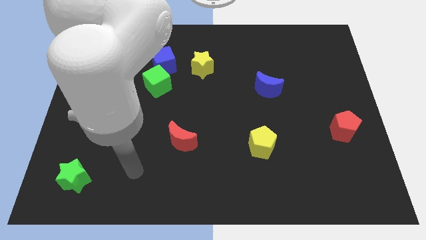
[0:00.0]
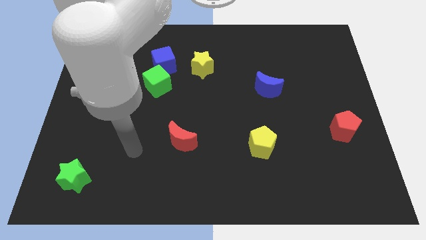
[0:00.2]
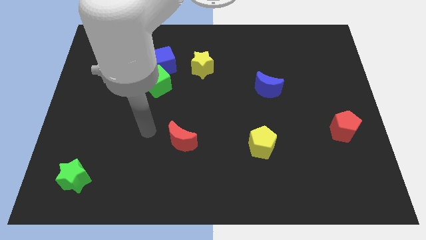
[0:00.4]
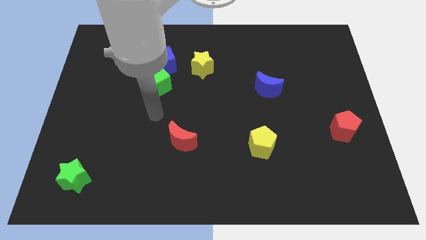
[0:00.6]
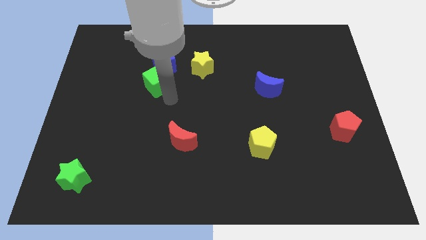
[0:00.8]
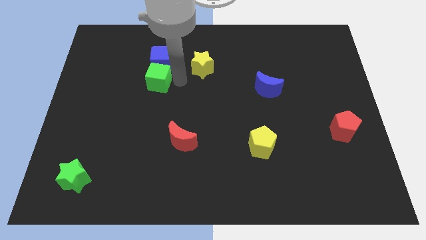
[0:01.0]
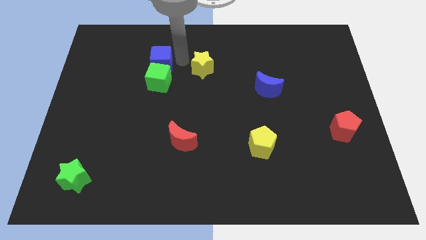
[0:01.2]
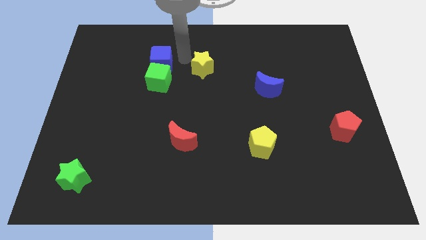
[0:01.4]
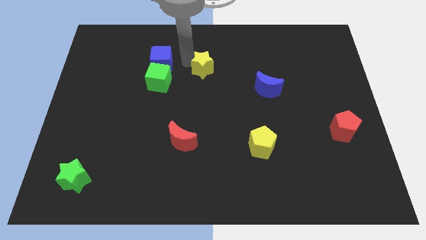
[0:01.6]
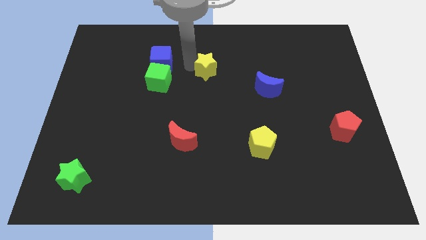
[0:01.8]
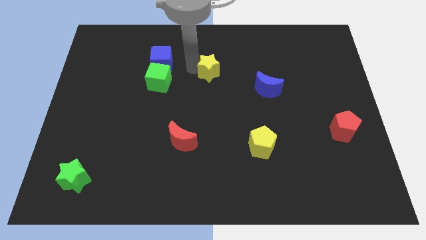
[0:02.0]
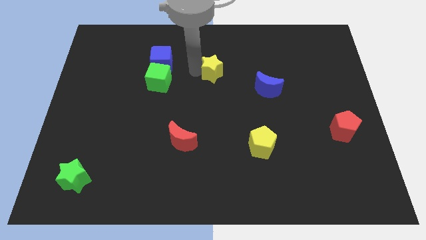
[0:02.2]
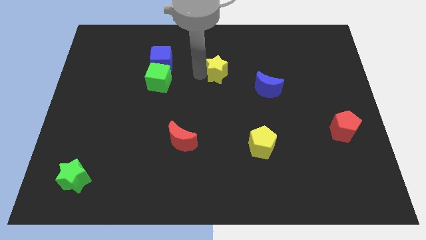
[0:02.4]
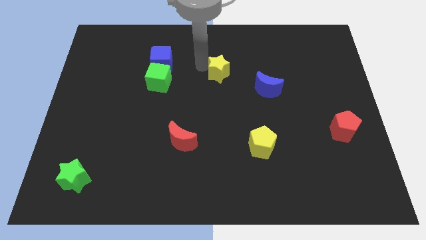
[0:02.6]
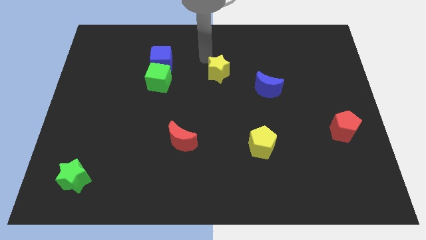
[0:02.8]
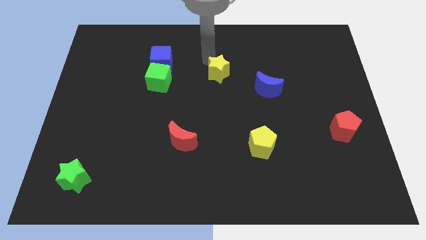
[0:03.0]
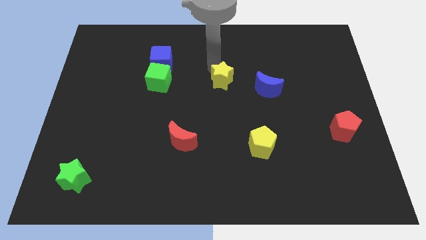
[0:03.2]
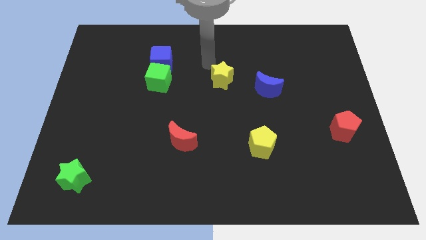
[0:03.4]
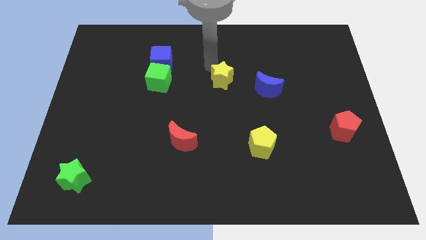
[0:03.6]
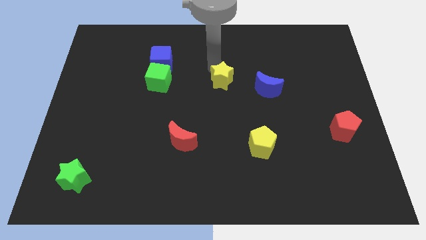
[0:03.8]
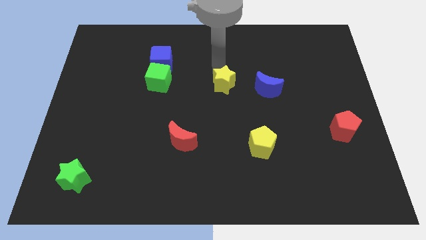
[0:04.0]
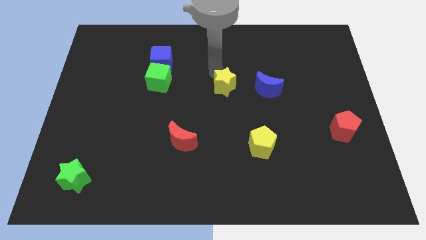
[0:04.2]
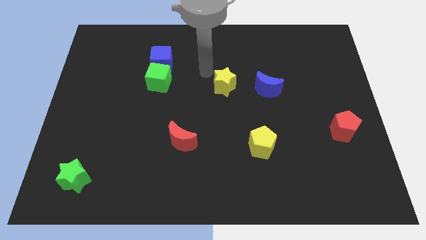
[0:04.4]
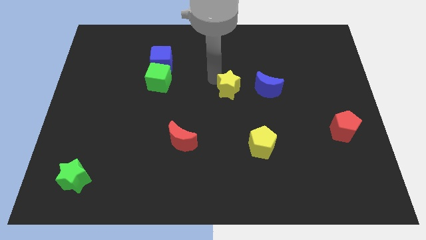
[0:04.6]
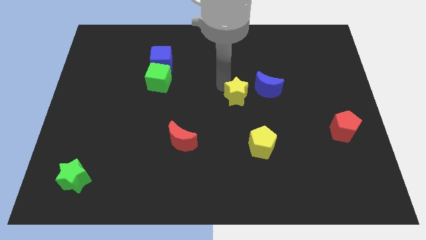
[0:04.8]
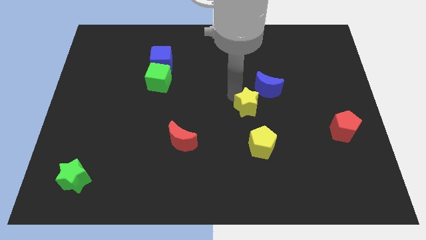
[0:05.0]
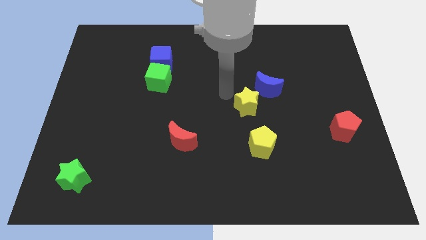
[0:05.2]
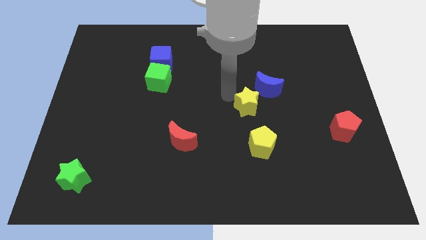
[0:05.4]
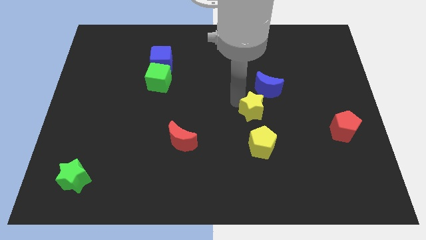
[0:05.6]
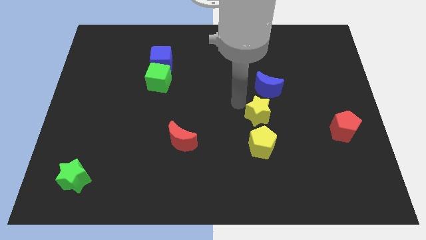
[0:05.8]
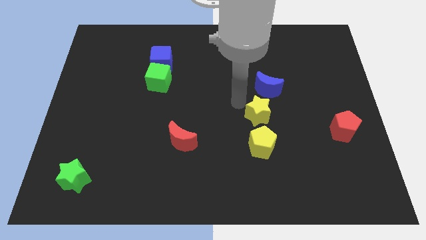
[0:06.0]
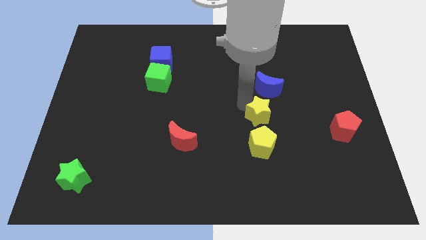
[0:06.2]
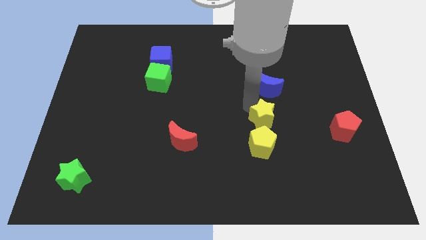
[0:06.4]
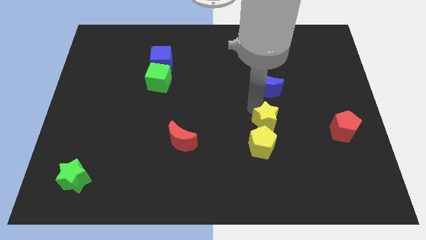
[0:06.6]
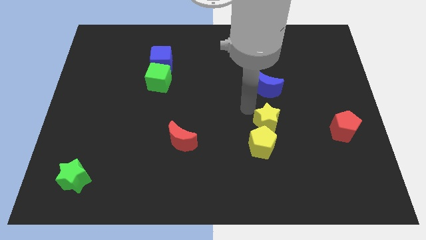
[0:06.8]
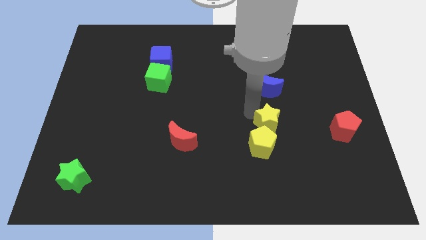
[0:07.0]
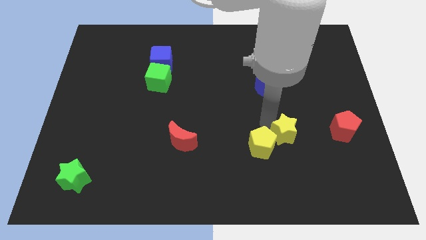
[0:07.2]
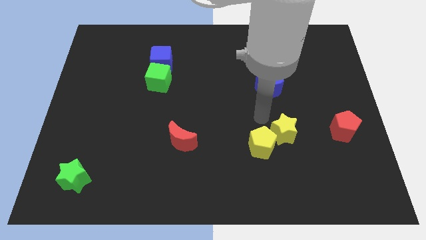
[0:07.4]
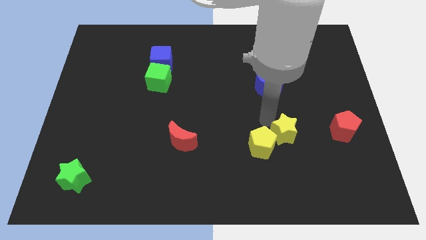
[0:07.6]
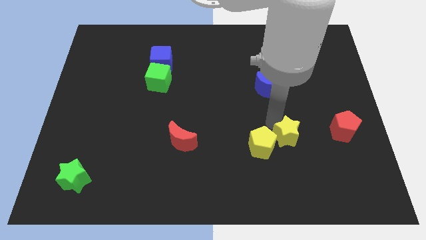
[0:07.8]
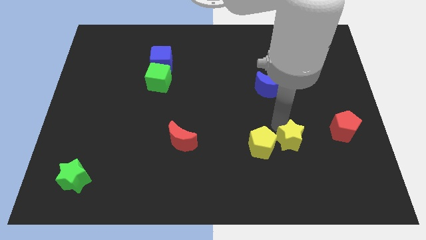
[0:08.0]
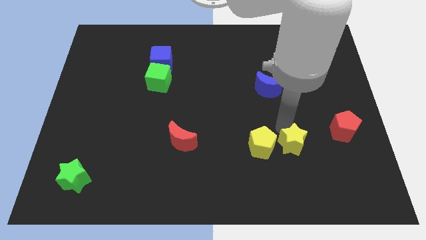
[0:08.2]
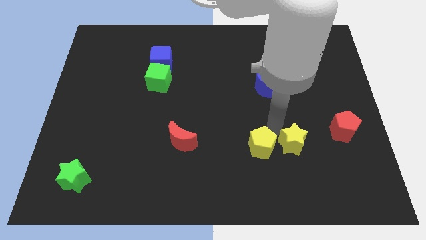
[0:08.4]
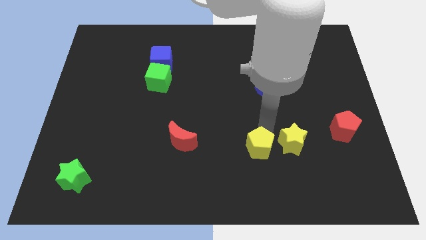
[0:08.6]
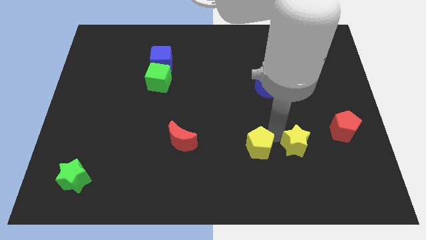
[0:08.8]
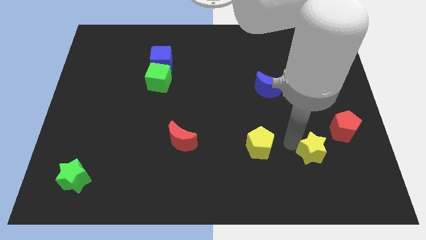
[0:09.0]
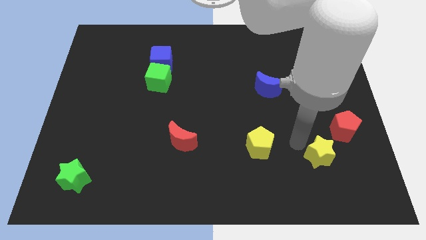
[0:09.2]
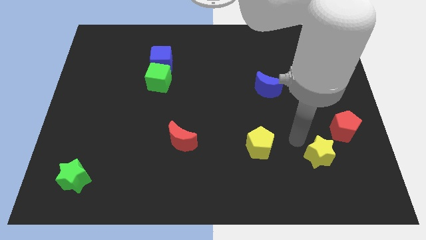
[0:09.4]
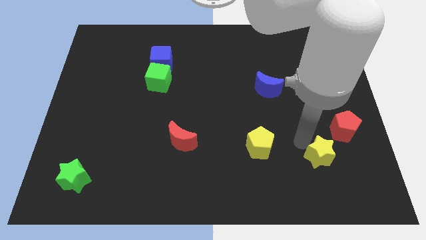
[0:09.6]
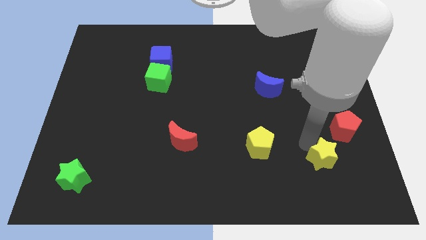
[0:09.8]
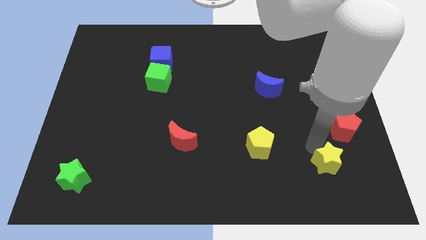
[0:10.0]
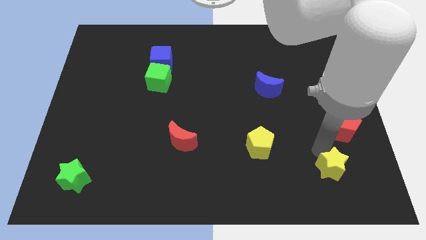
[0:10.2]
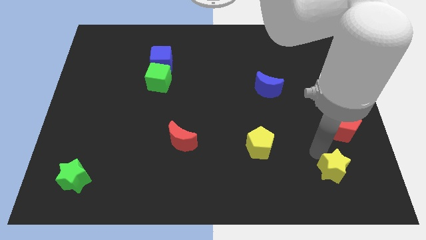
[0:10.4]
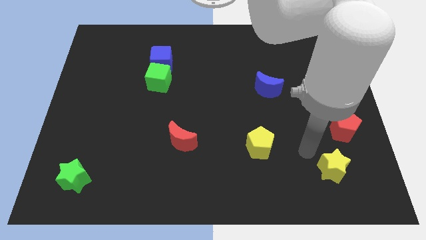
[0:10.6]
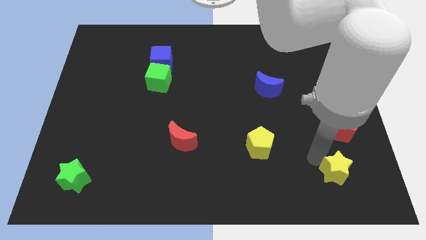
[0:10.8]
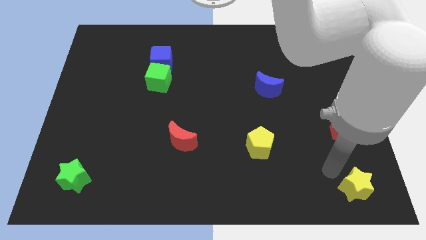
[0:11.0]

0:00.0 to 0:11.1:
push the yellow star to the lower right corner

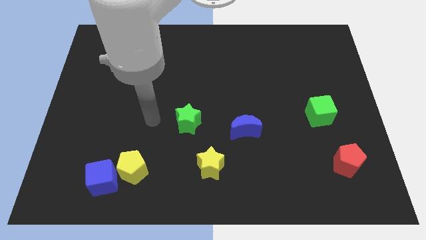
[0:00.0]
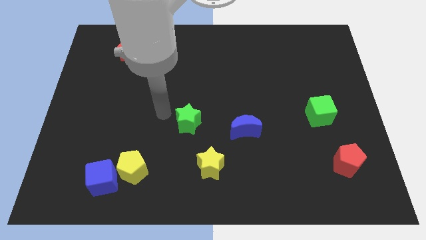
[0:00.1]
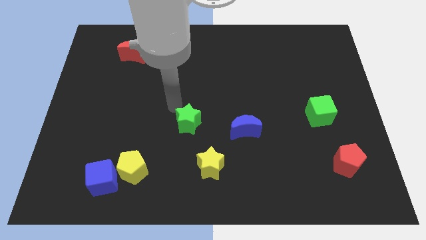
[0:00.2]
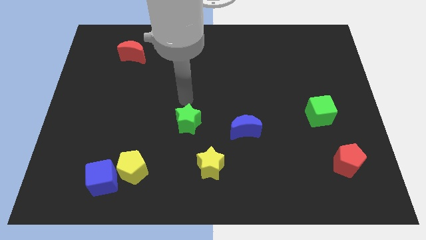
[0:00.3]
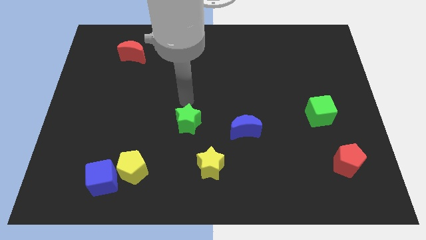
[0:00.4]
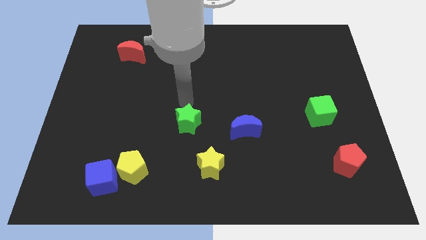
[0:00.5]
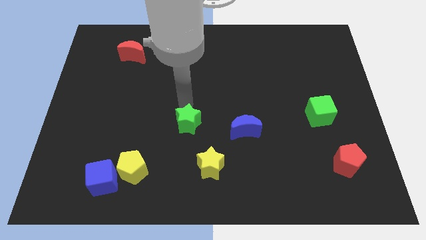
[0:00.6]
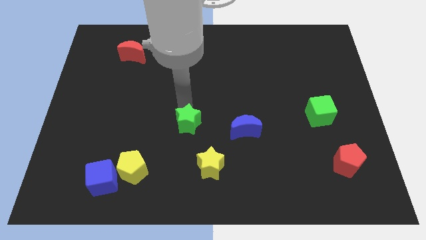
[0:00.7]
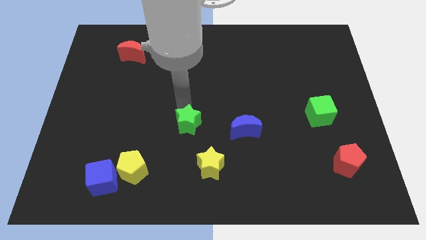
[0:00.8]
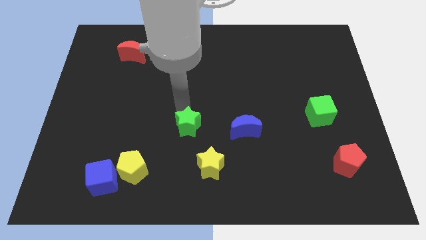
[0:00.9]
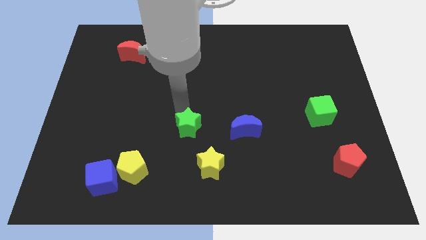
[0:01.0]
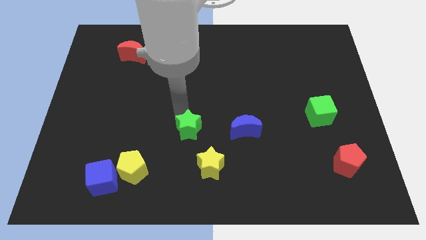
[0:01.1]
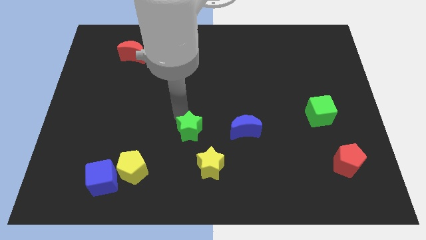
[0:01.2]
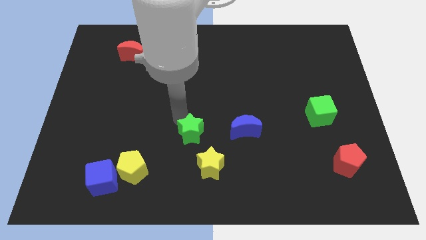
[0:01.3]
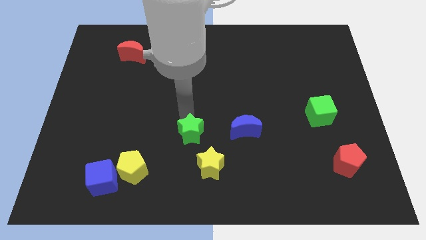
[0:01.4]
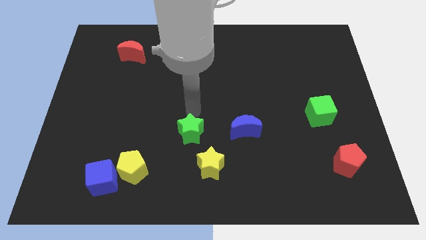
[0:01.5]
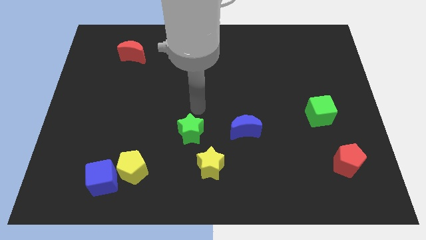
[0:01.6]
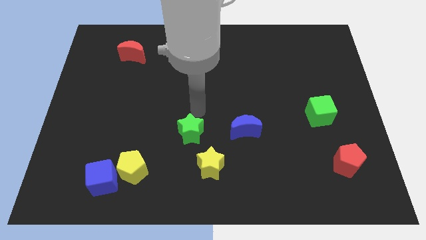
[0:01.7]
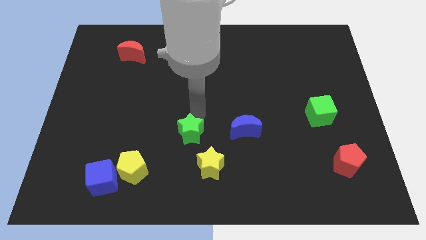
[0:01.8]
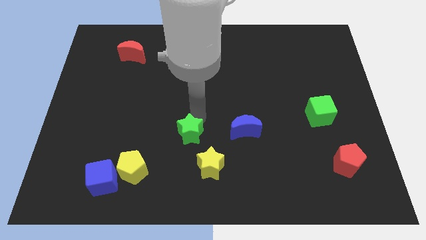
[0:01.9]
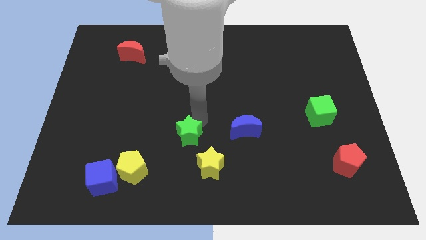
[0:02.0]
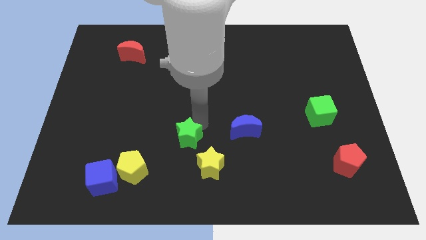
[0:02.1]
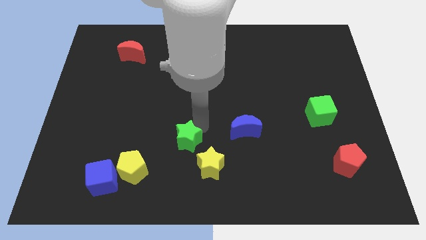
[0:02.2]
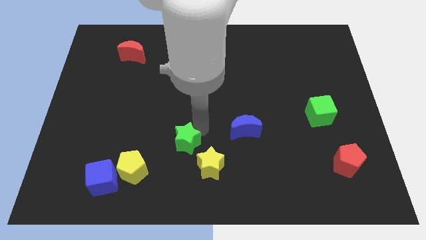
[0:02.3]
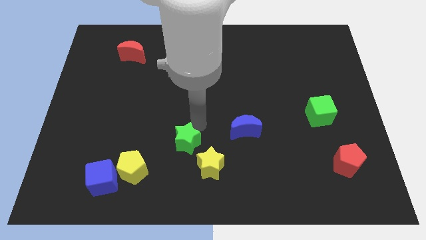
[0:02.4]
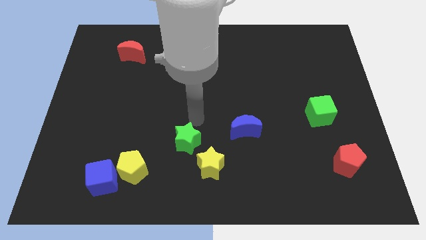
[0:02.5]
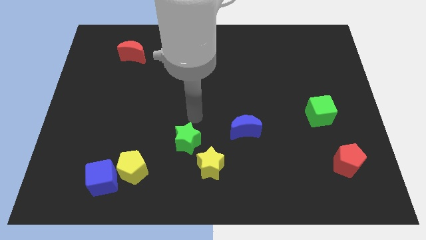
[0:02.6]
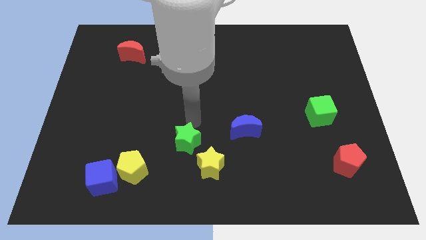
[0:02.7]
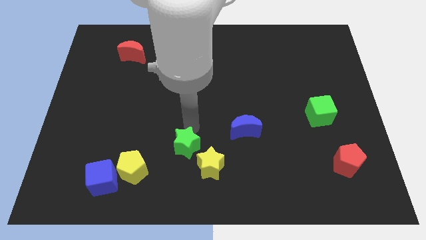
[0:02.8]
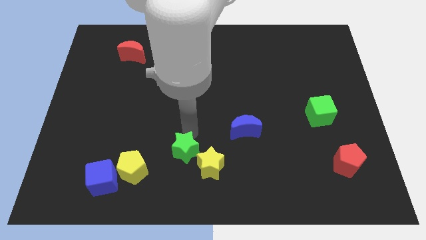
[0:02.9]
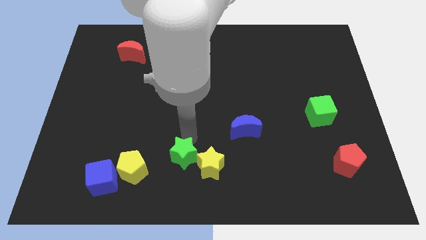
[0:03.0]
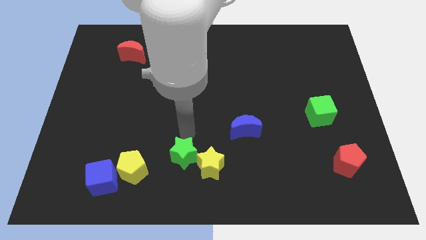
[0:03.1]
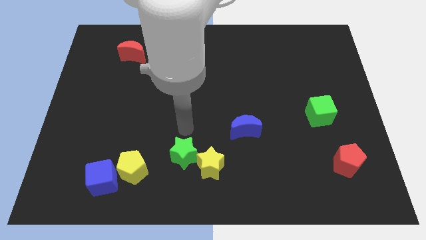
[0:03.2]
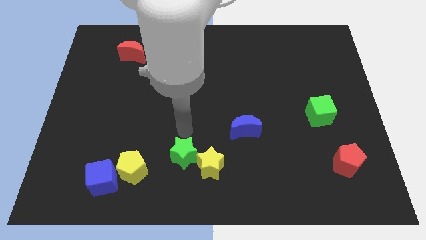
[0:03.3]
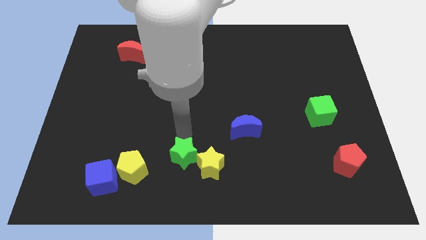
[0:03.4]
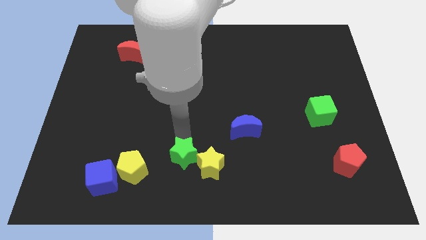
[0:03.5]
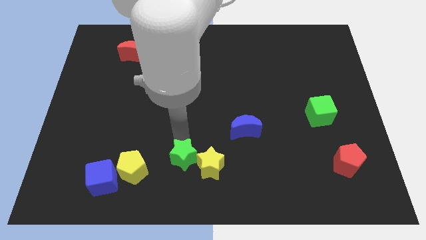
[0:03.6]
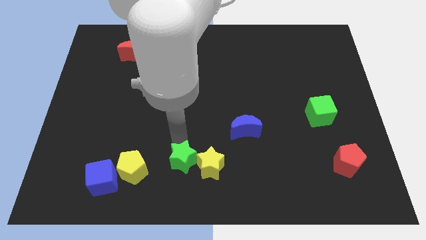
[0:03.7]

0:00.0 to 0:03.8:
put the green star to the bottom side
